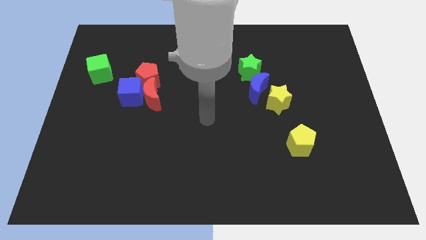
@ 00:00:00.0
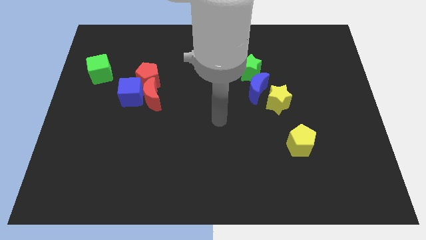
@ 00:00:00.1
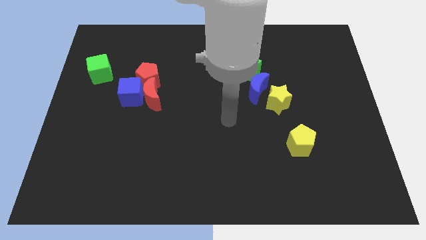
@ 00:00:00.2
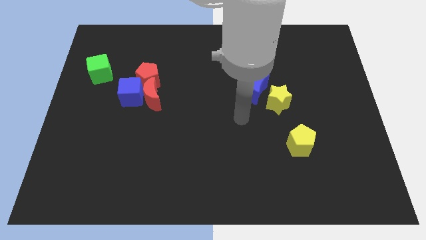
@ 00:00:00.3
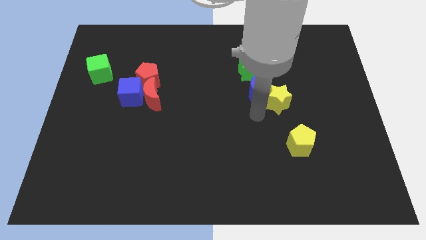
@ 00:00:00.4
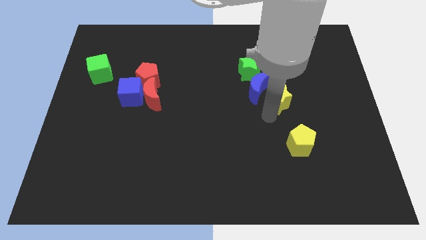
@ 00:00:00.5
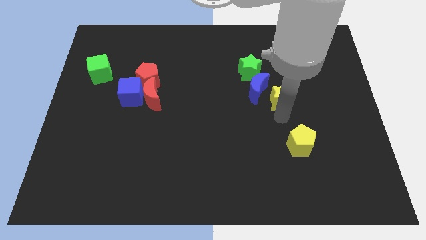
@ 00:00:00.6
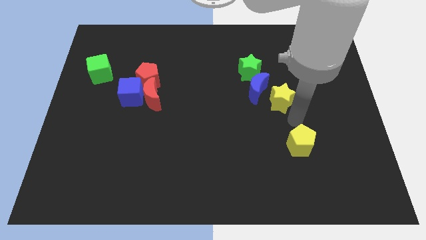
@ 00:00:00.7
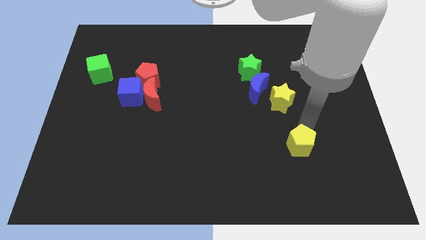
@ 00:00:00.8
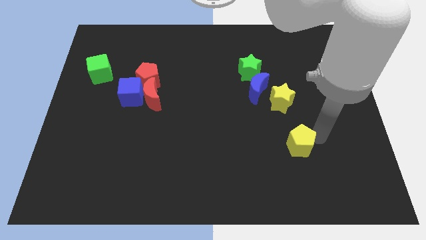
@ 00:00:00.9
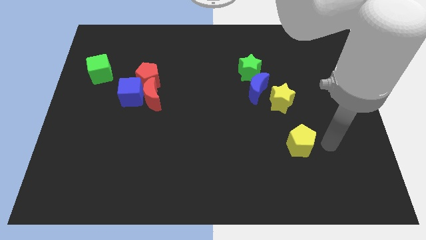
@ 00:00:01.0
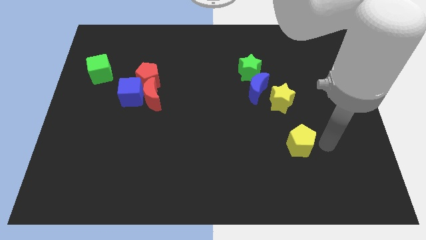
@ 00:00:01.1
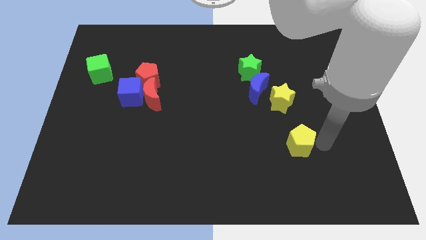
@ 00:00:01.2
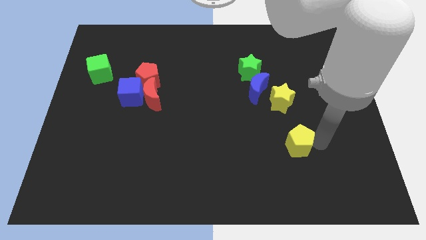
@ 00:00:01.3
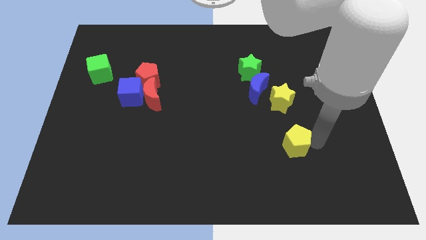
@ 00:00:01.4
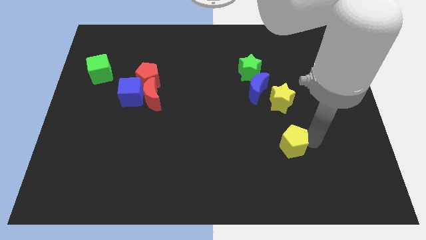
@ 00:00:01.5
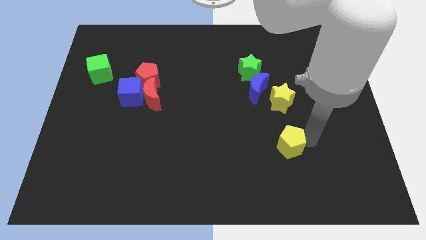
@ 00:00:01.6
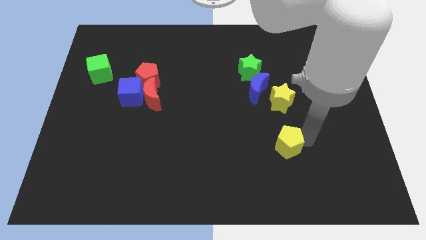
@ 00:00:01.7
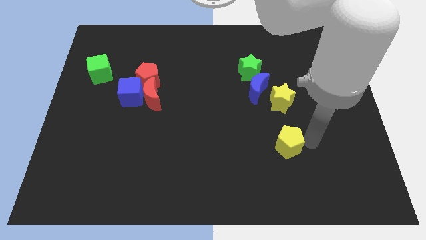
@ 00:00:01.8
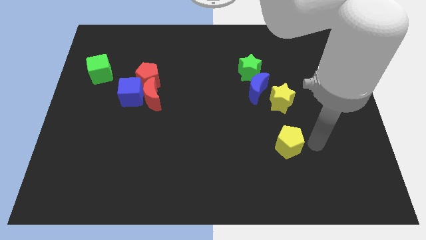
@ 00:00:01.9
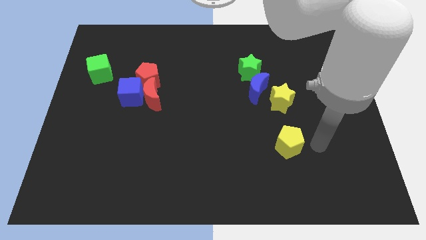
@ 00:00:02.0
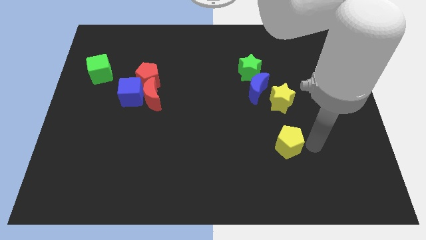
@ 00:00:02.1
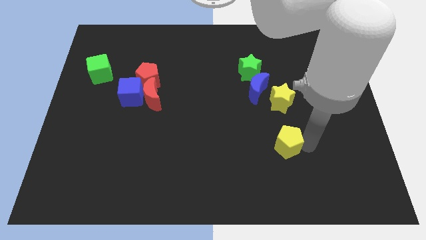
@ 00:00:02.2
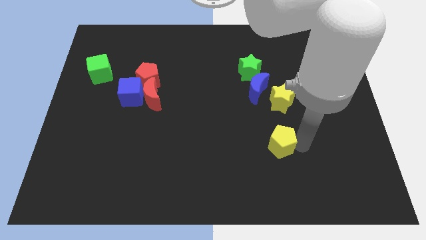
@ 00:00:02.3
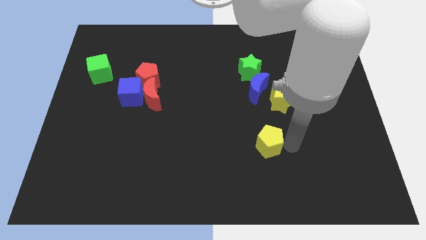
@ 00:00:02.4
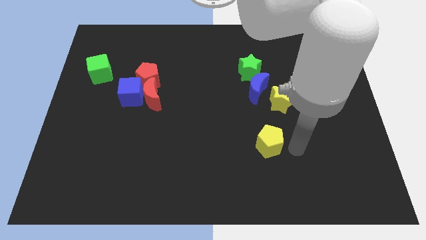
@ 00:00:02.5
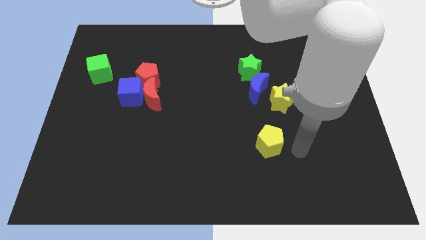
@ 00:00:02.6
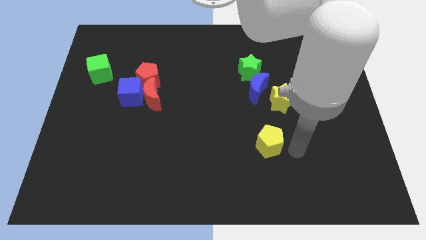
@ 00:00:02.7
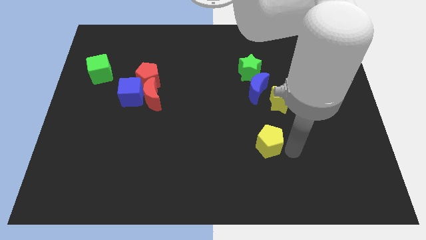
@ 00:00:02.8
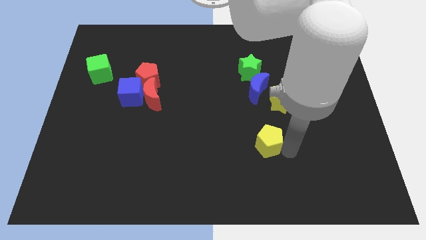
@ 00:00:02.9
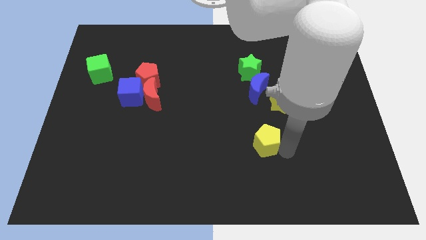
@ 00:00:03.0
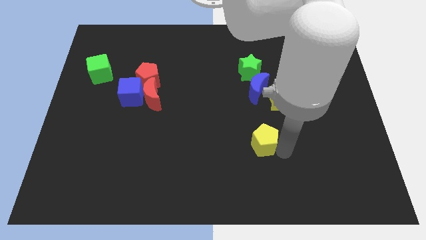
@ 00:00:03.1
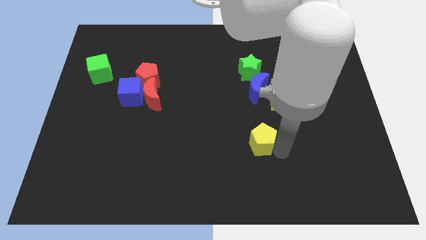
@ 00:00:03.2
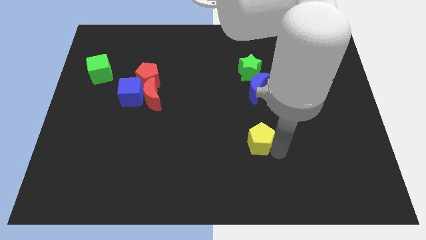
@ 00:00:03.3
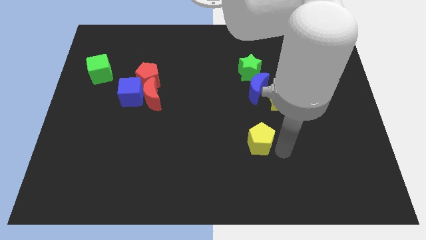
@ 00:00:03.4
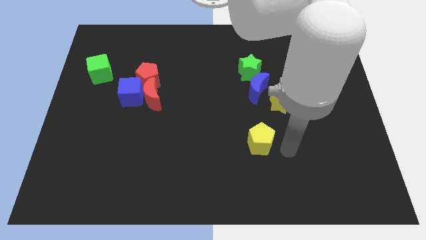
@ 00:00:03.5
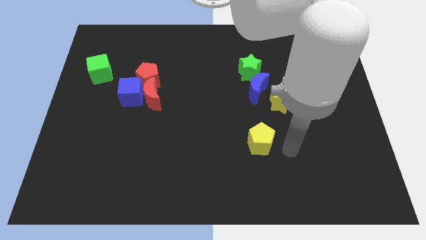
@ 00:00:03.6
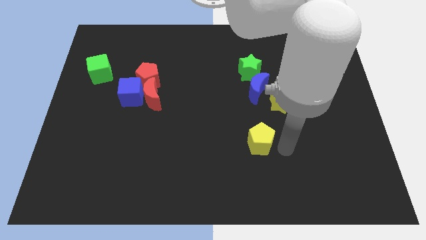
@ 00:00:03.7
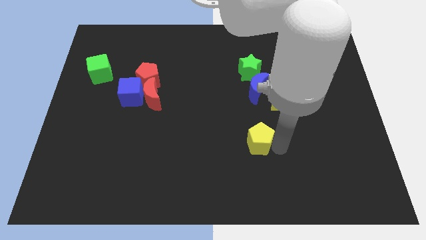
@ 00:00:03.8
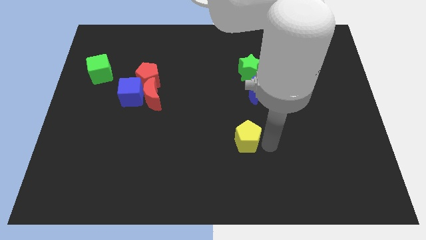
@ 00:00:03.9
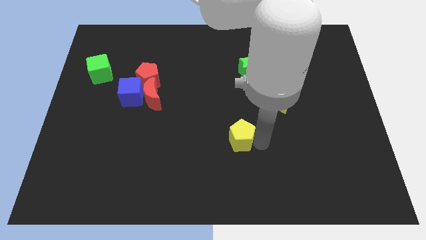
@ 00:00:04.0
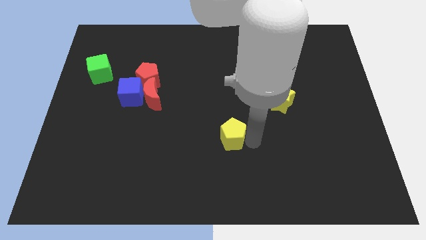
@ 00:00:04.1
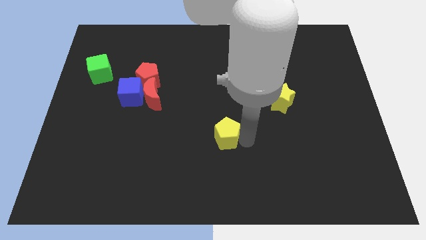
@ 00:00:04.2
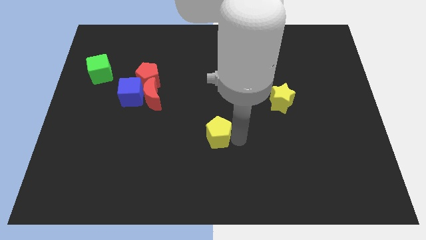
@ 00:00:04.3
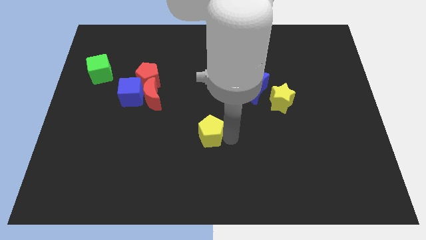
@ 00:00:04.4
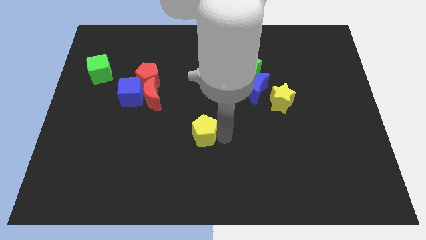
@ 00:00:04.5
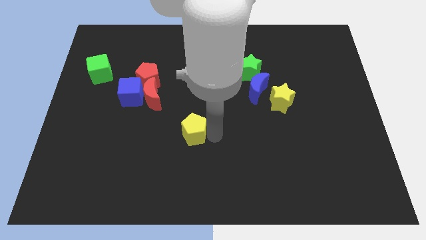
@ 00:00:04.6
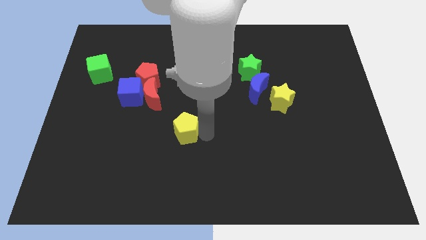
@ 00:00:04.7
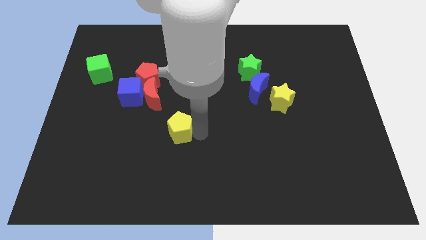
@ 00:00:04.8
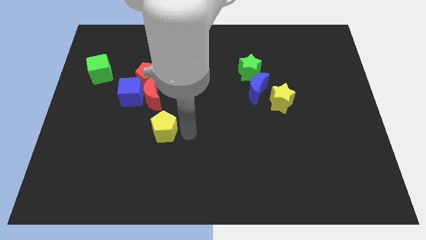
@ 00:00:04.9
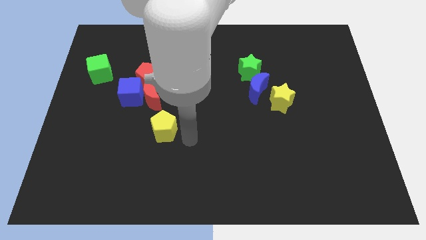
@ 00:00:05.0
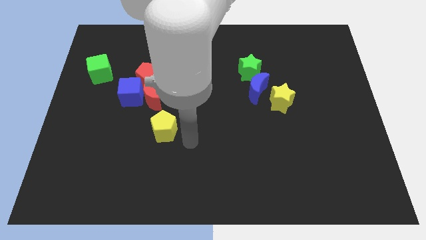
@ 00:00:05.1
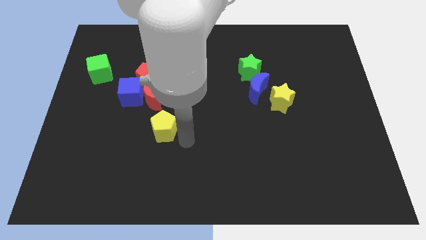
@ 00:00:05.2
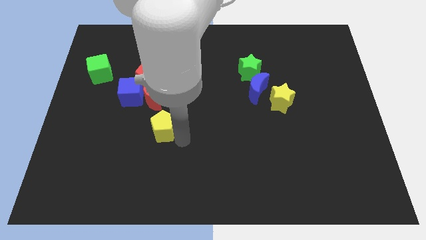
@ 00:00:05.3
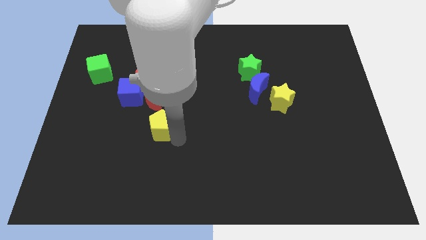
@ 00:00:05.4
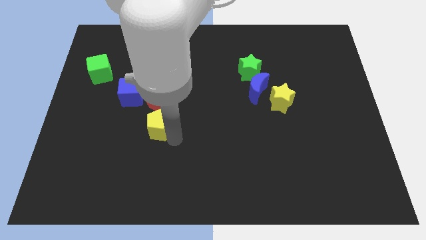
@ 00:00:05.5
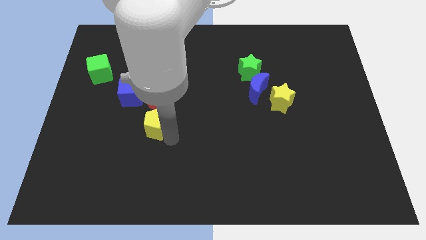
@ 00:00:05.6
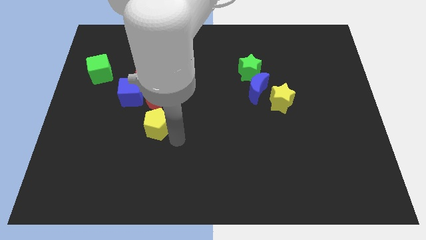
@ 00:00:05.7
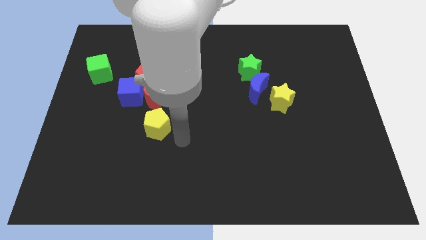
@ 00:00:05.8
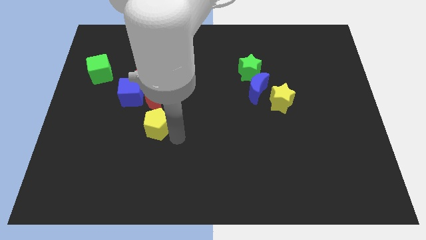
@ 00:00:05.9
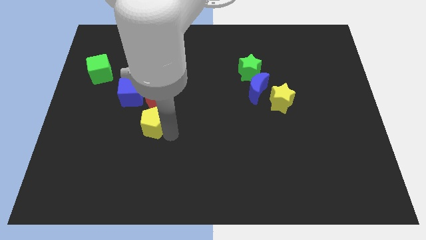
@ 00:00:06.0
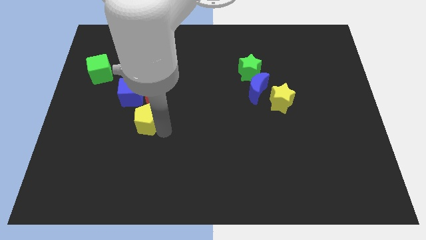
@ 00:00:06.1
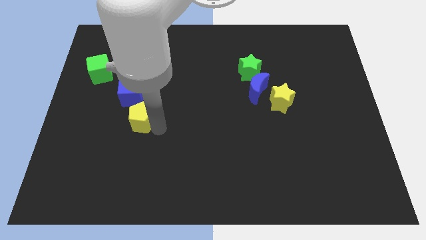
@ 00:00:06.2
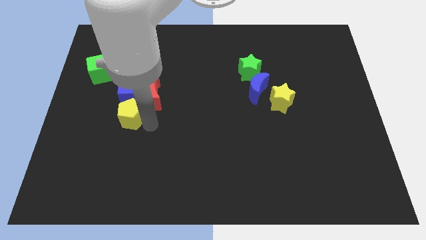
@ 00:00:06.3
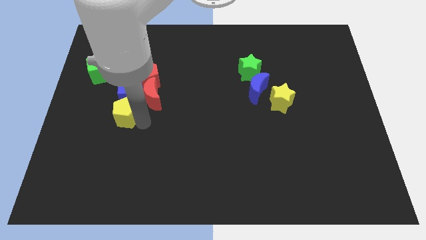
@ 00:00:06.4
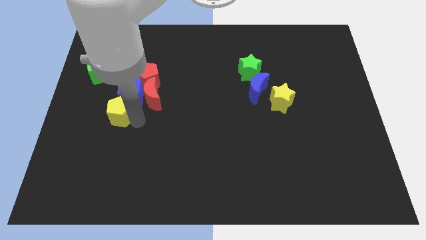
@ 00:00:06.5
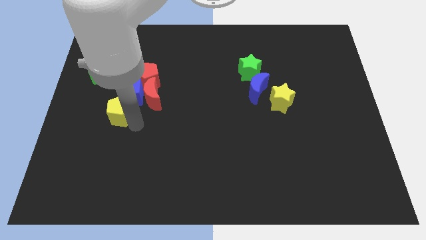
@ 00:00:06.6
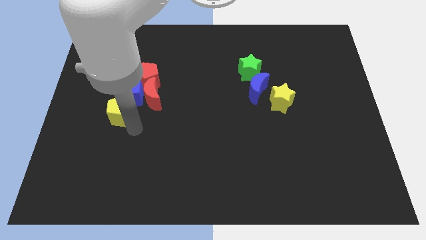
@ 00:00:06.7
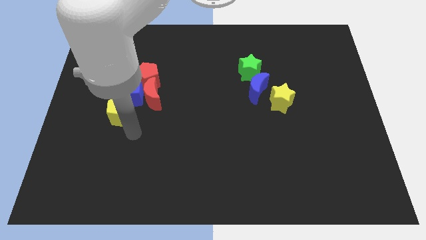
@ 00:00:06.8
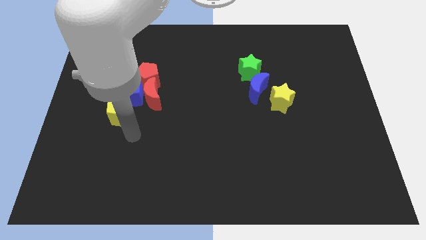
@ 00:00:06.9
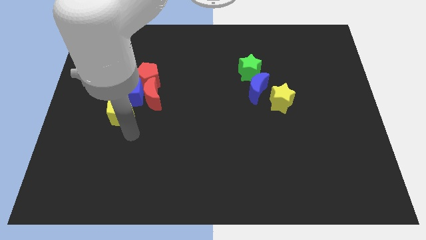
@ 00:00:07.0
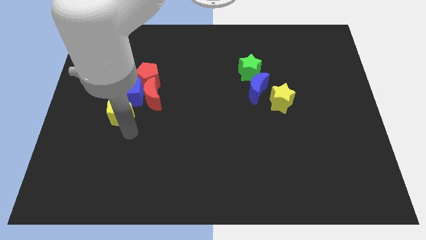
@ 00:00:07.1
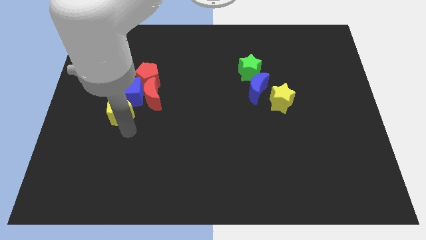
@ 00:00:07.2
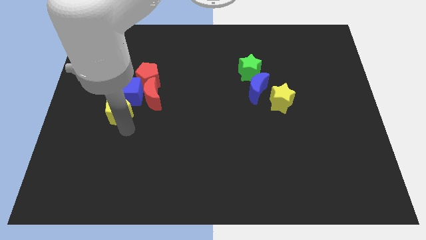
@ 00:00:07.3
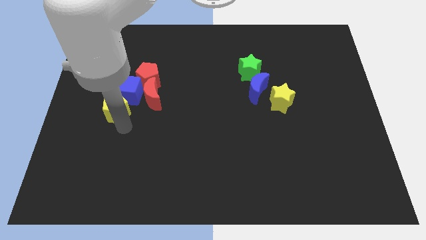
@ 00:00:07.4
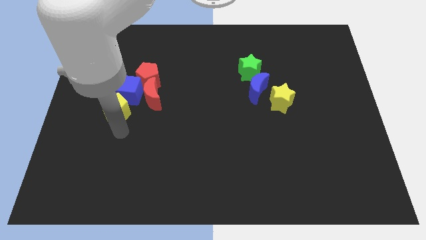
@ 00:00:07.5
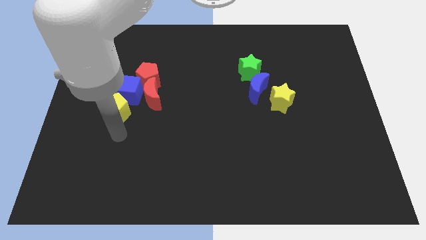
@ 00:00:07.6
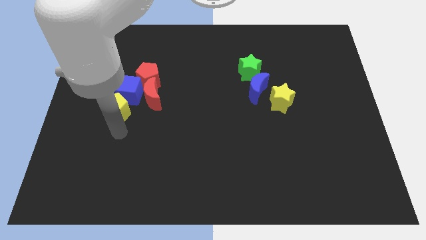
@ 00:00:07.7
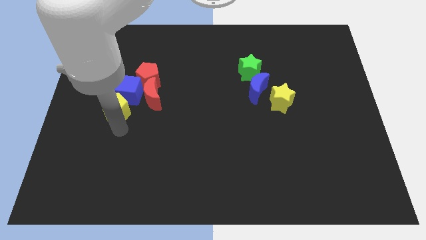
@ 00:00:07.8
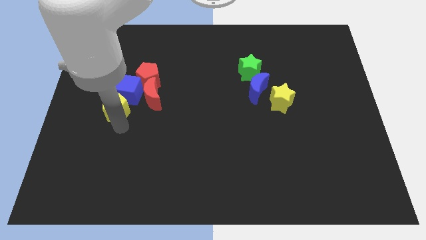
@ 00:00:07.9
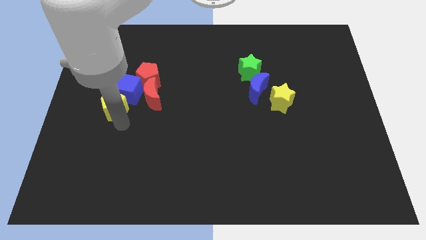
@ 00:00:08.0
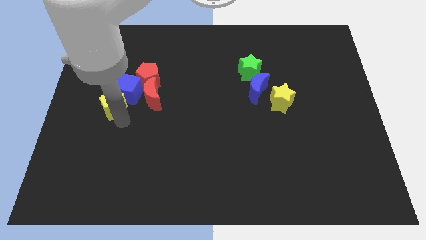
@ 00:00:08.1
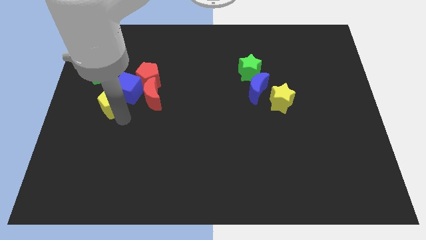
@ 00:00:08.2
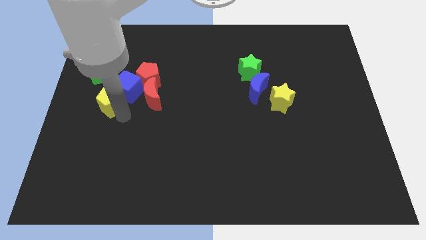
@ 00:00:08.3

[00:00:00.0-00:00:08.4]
slide the yellow pentagon to the bottom right side of the green cube
